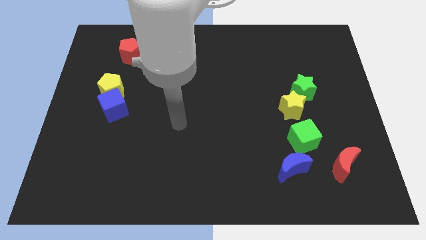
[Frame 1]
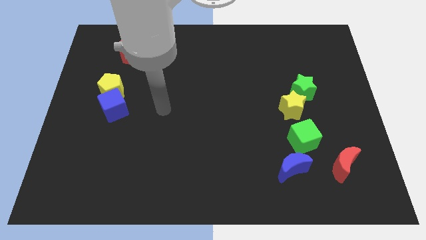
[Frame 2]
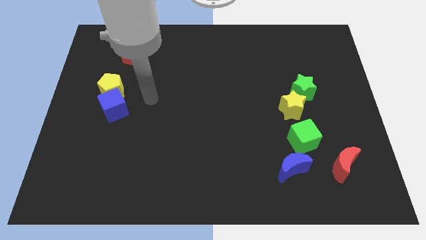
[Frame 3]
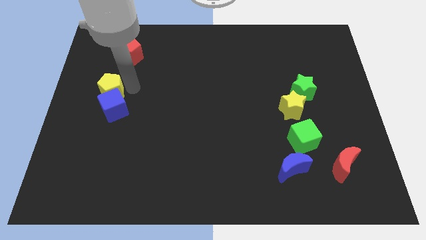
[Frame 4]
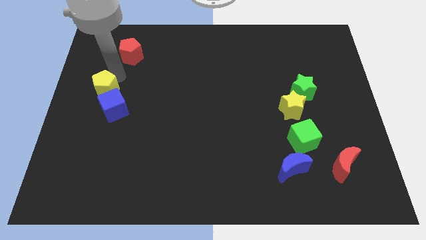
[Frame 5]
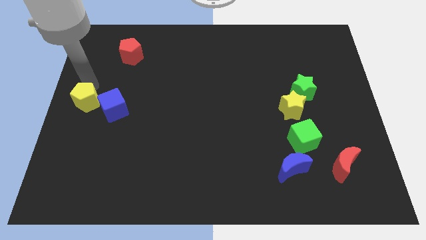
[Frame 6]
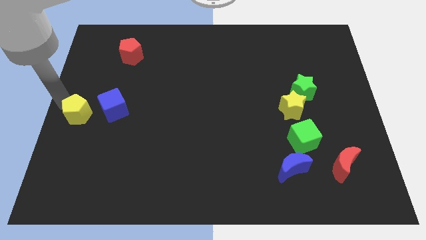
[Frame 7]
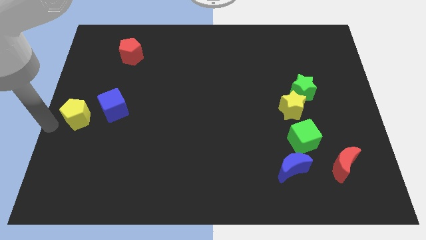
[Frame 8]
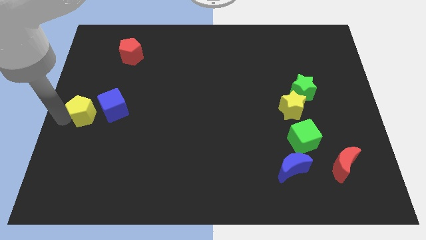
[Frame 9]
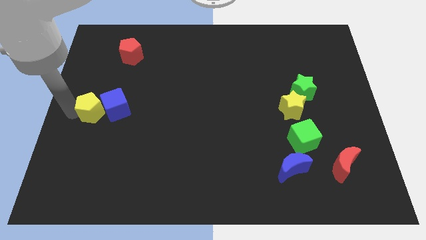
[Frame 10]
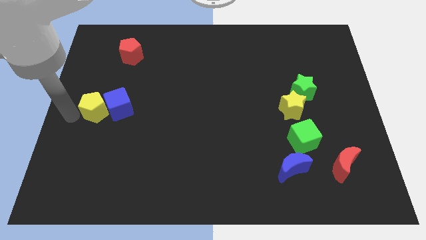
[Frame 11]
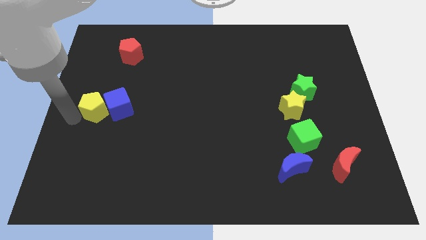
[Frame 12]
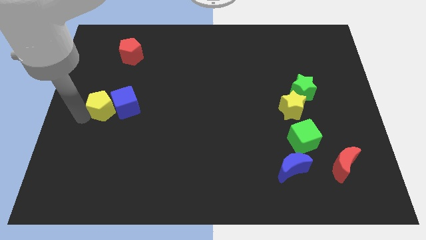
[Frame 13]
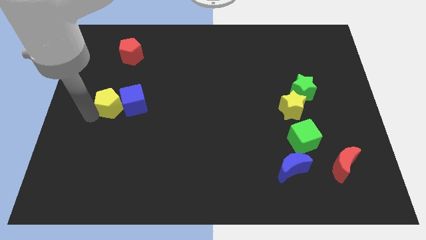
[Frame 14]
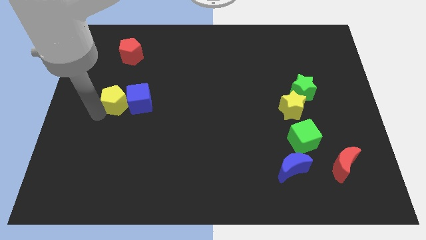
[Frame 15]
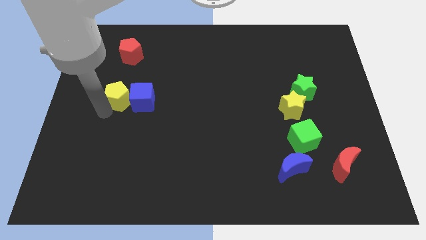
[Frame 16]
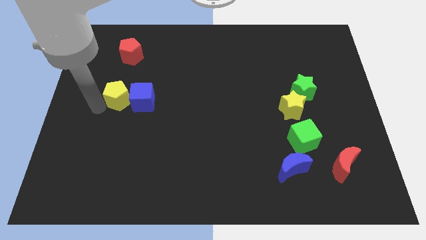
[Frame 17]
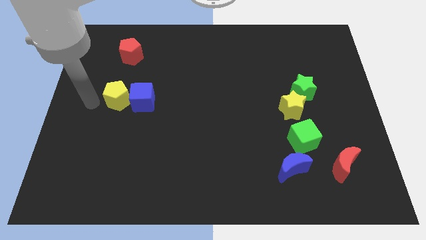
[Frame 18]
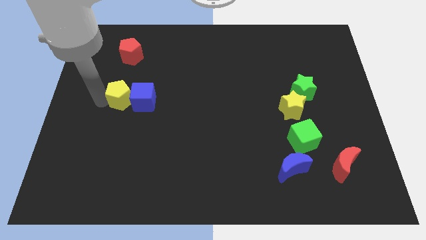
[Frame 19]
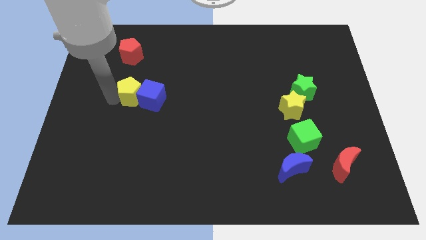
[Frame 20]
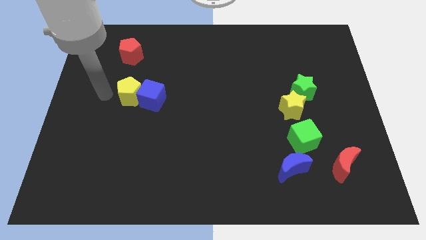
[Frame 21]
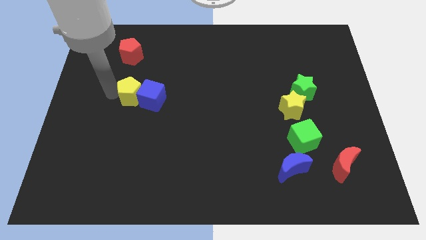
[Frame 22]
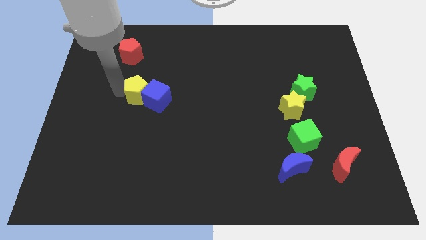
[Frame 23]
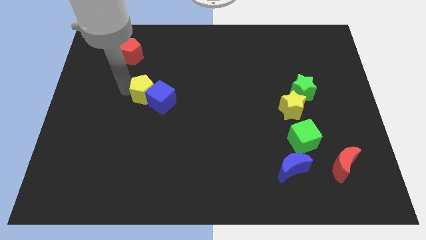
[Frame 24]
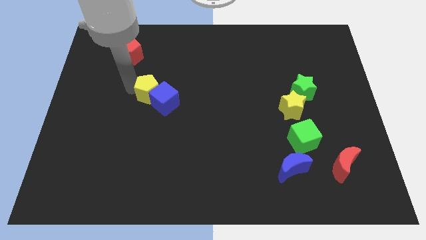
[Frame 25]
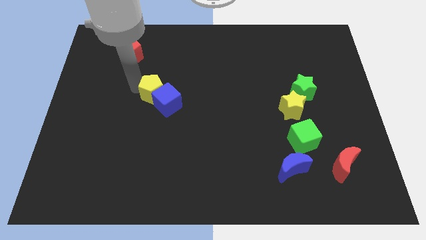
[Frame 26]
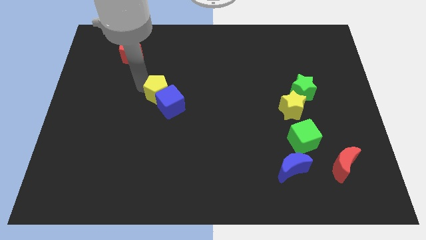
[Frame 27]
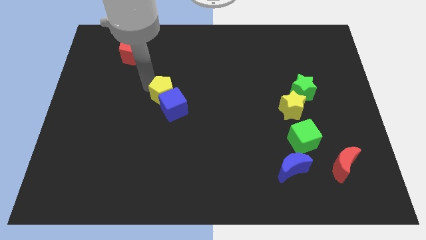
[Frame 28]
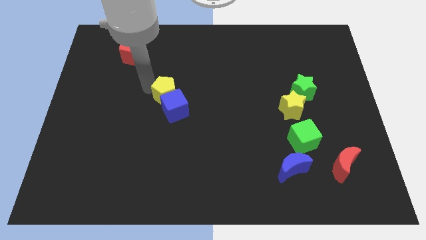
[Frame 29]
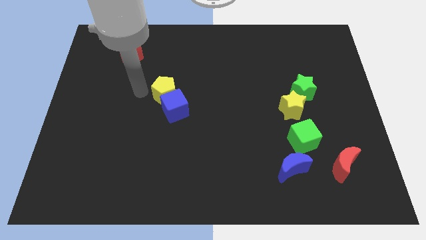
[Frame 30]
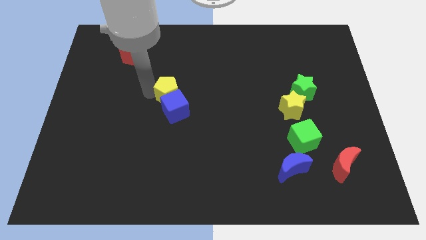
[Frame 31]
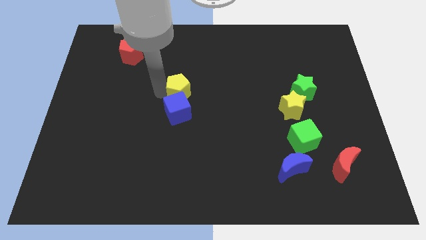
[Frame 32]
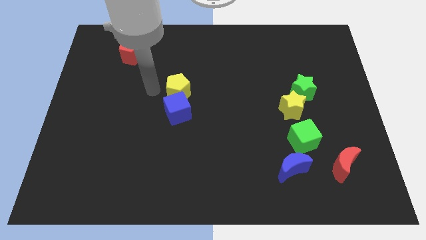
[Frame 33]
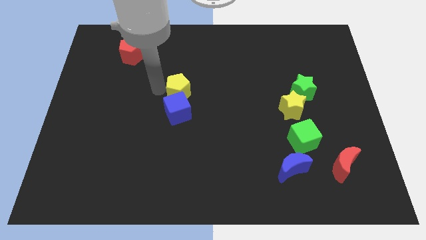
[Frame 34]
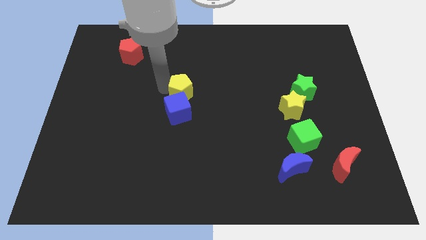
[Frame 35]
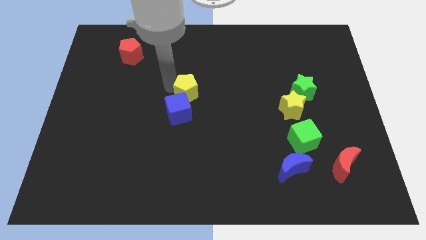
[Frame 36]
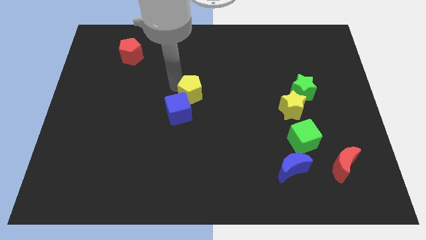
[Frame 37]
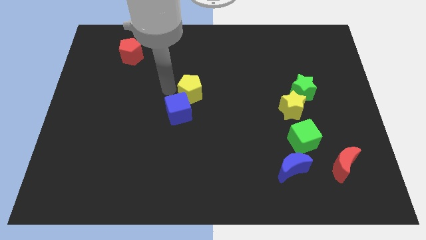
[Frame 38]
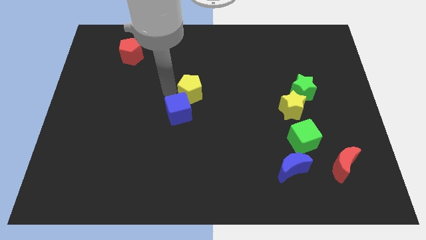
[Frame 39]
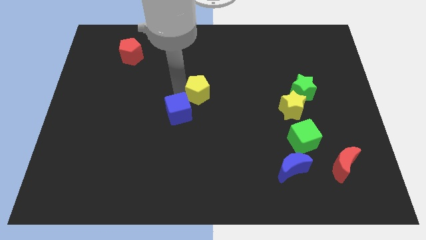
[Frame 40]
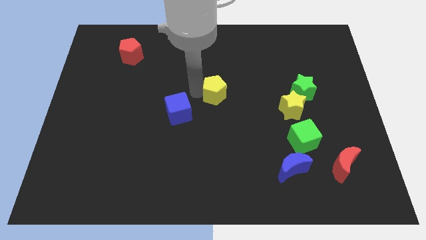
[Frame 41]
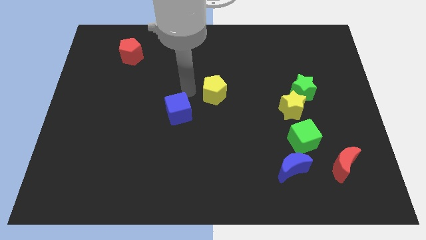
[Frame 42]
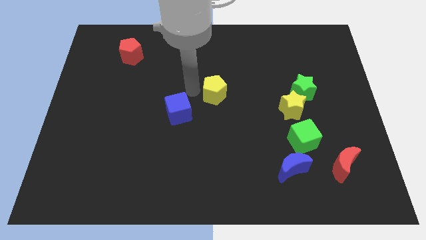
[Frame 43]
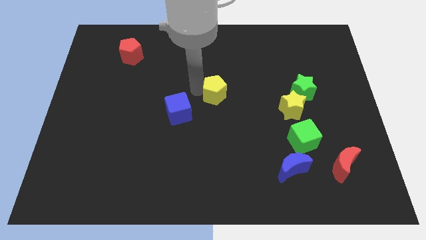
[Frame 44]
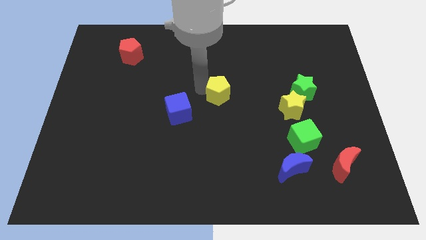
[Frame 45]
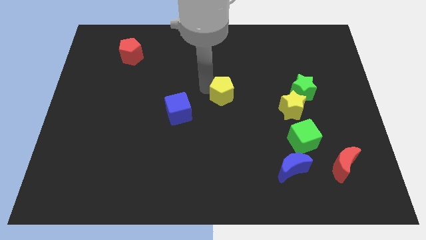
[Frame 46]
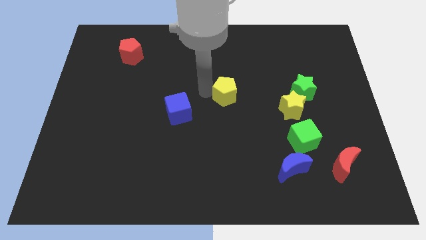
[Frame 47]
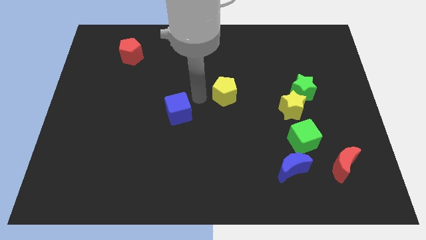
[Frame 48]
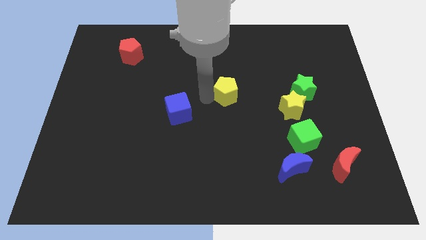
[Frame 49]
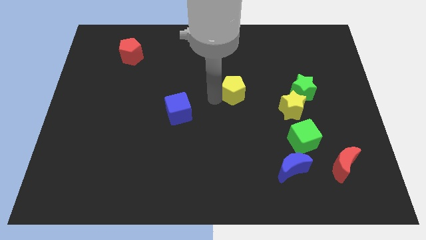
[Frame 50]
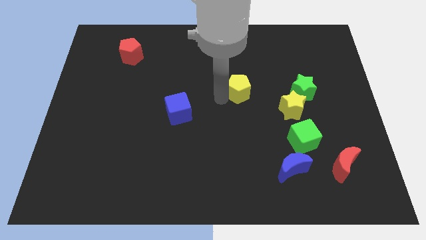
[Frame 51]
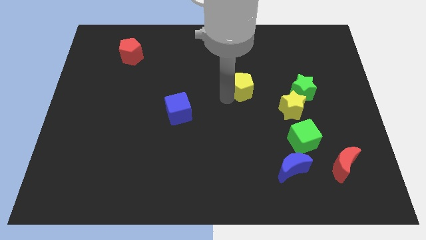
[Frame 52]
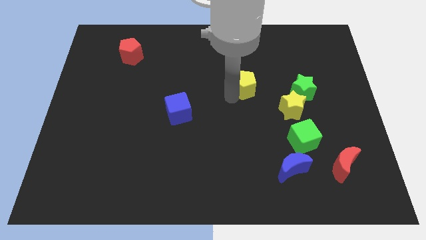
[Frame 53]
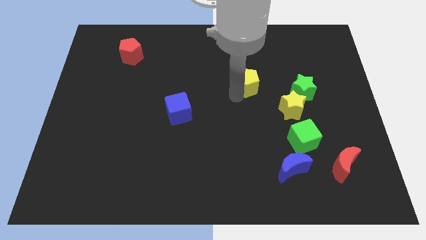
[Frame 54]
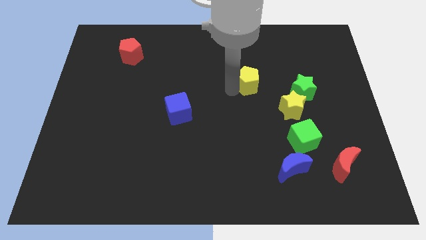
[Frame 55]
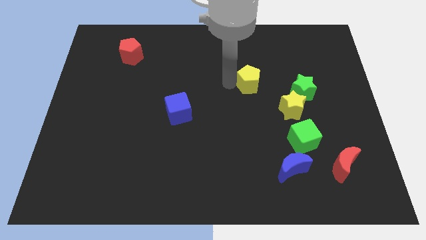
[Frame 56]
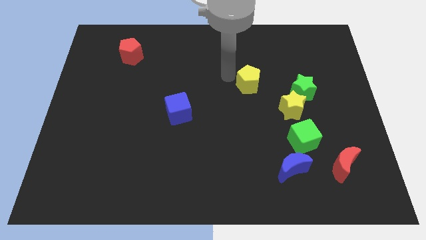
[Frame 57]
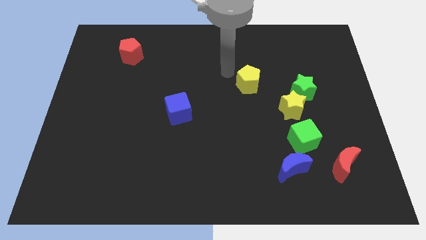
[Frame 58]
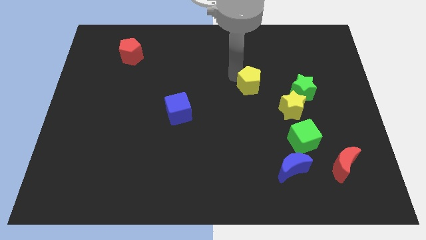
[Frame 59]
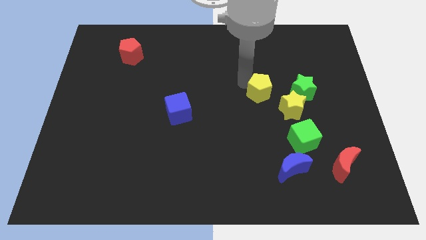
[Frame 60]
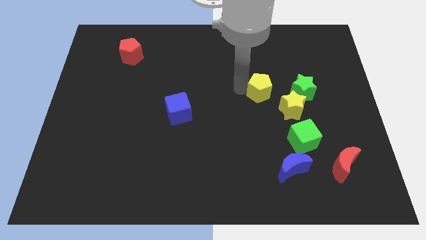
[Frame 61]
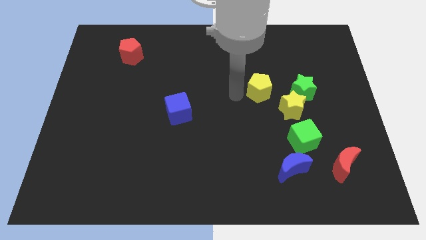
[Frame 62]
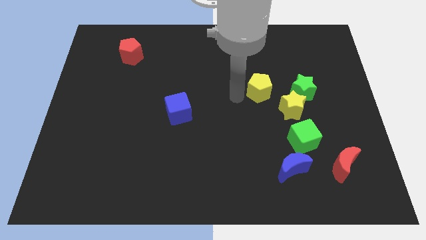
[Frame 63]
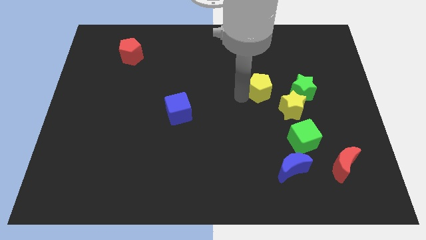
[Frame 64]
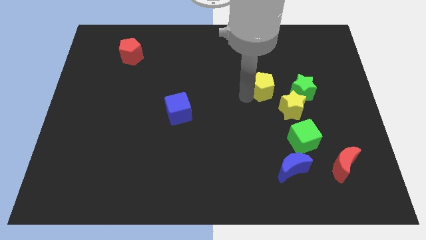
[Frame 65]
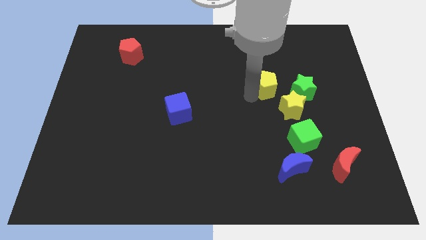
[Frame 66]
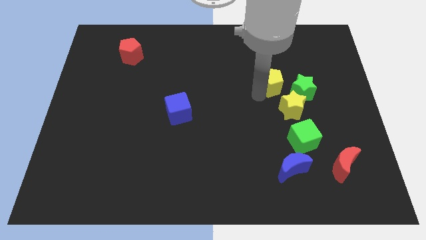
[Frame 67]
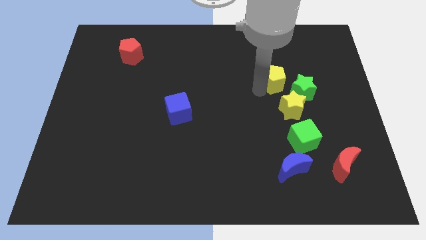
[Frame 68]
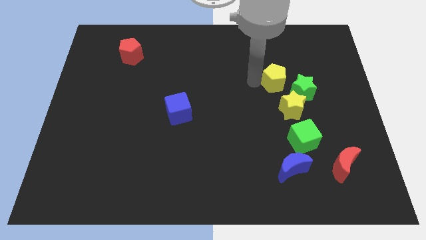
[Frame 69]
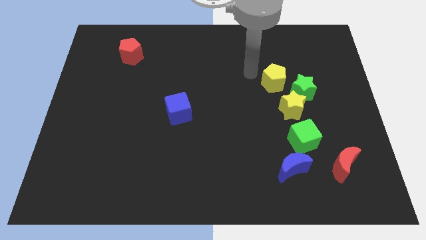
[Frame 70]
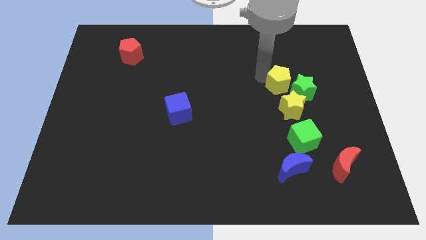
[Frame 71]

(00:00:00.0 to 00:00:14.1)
slide the yellow pentagon to the green star
